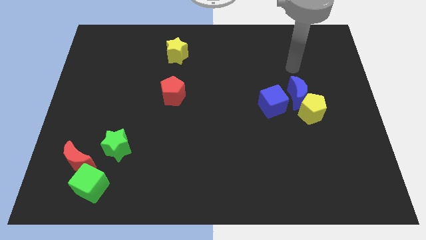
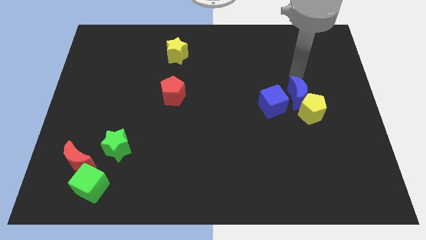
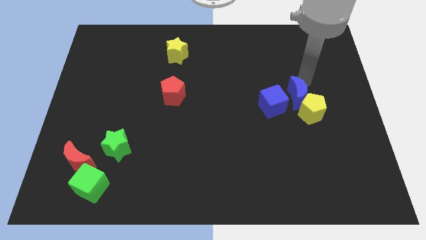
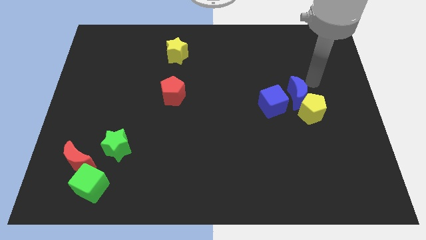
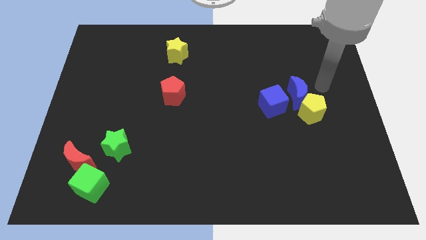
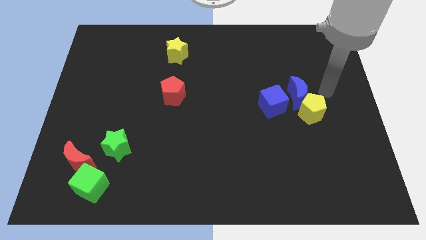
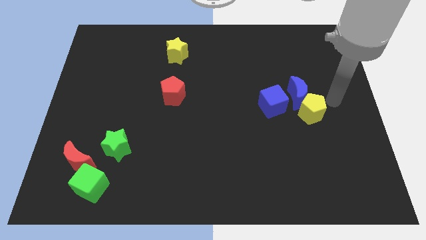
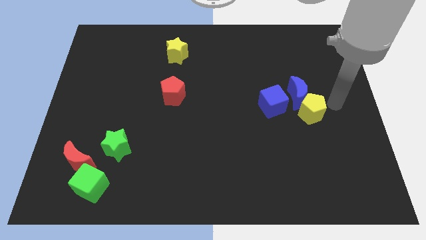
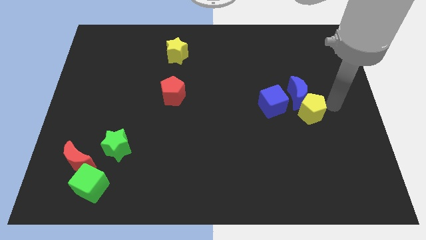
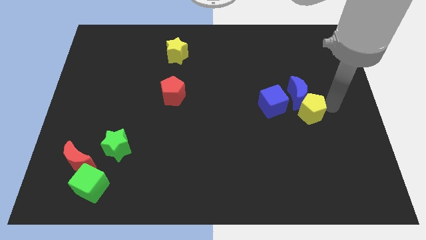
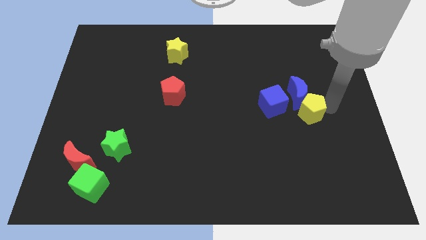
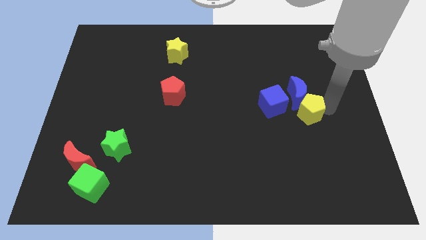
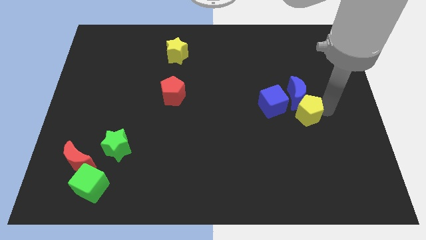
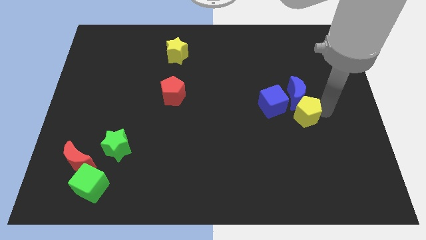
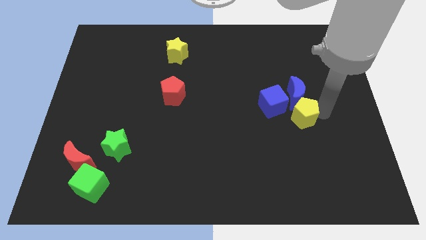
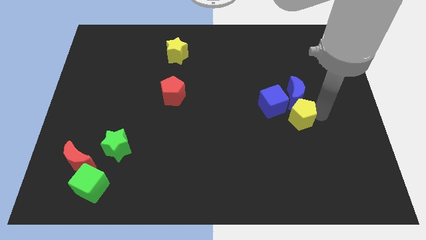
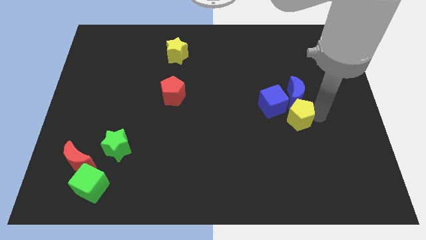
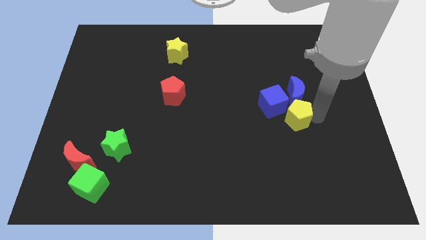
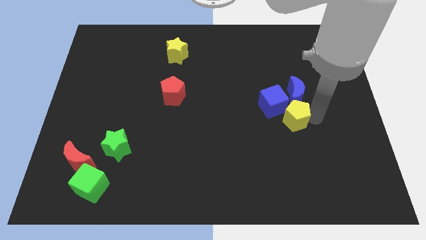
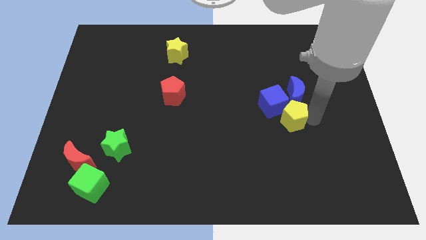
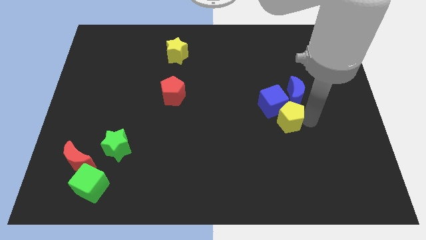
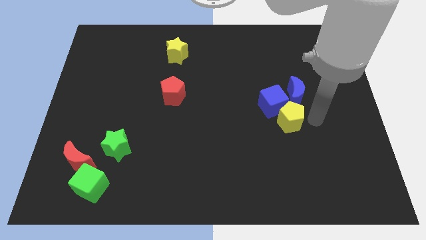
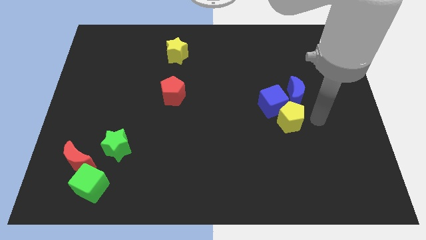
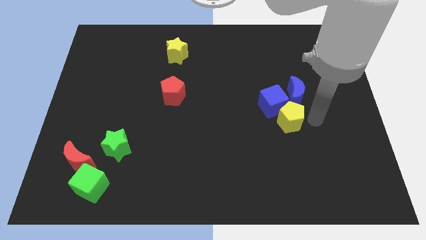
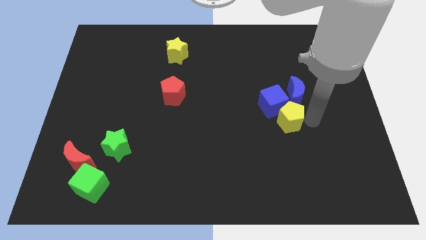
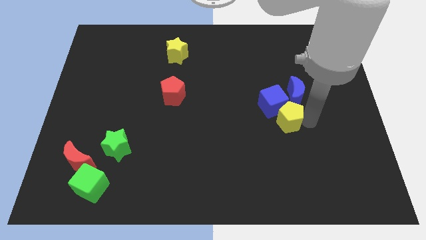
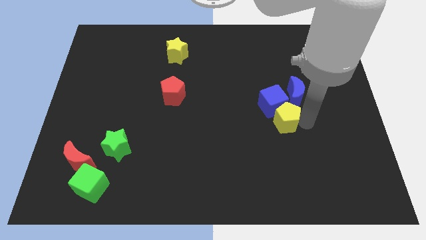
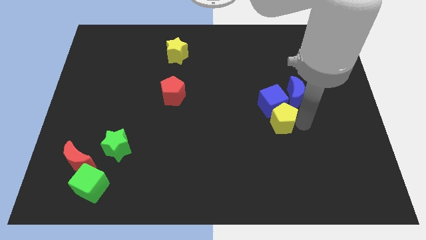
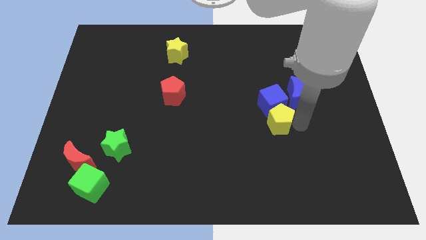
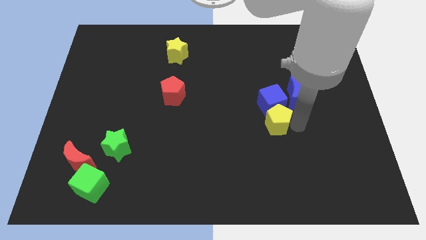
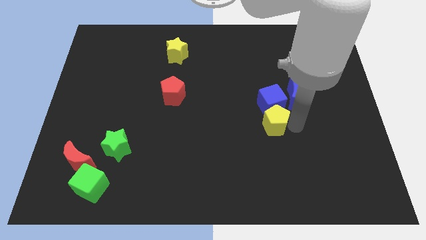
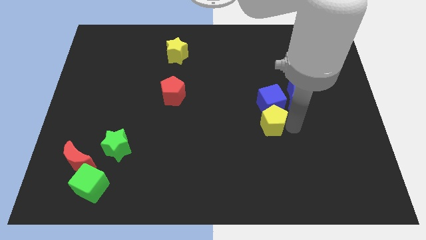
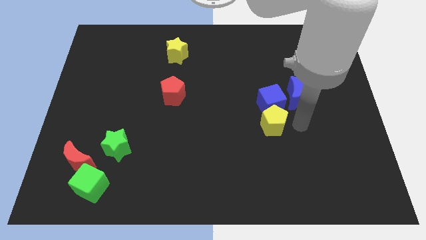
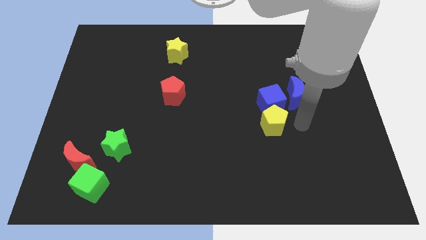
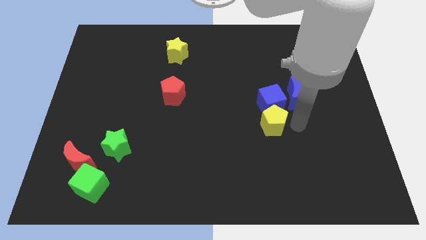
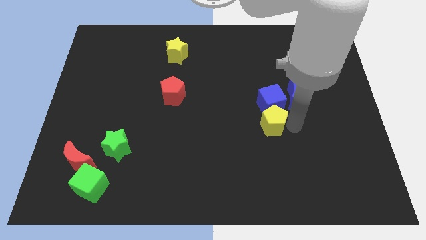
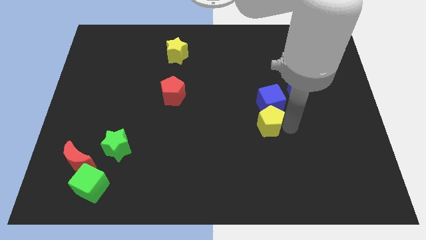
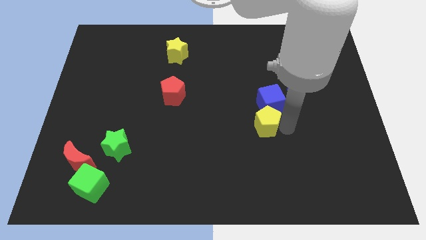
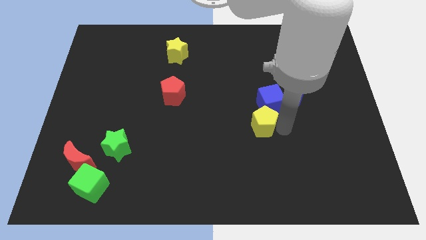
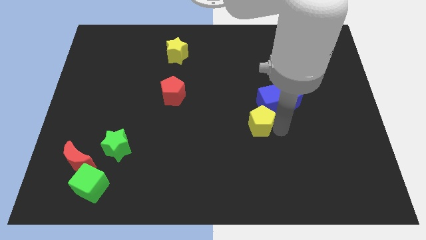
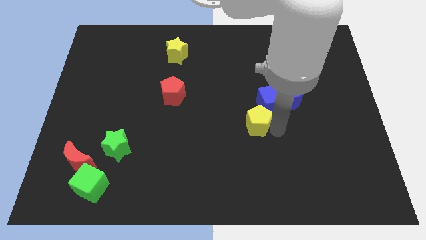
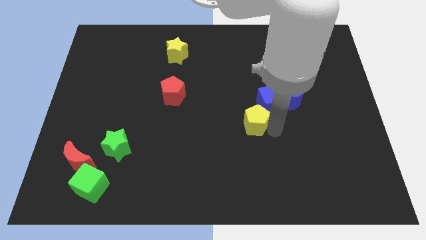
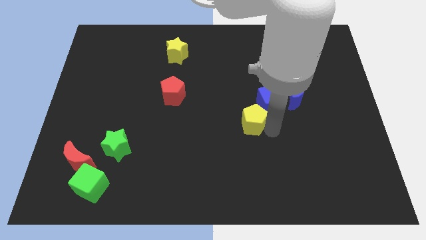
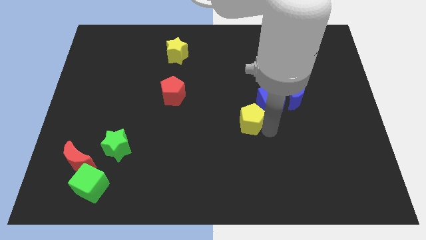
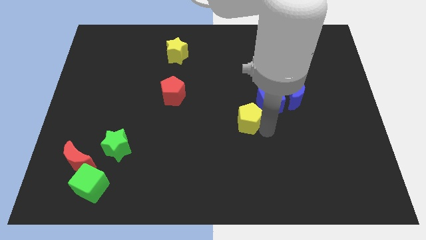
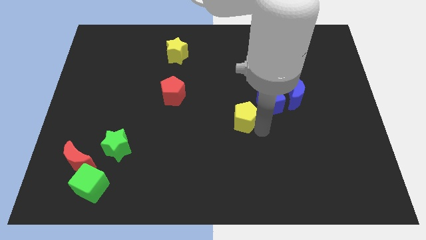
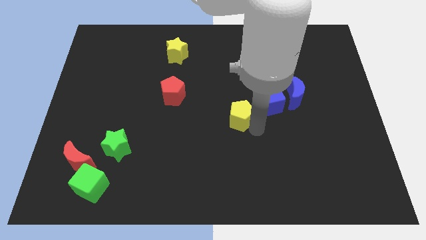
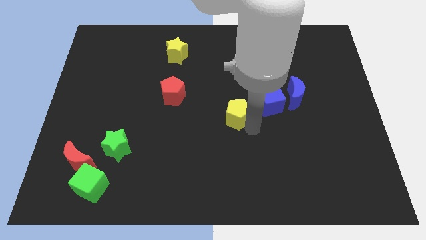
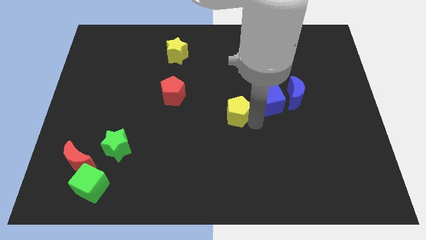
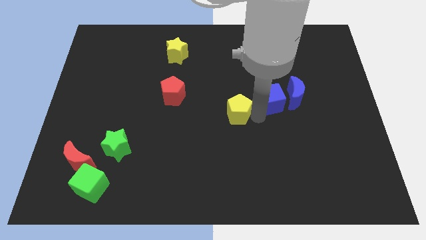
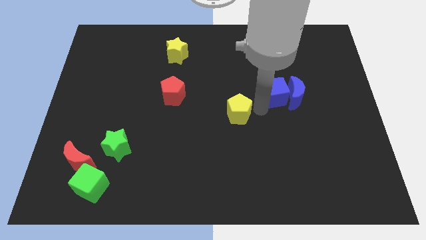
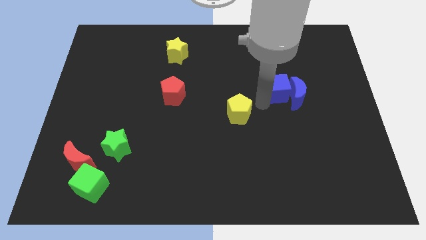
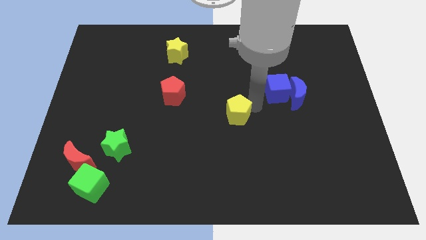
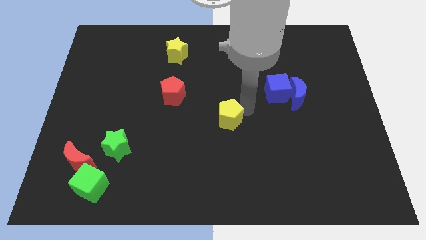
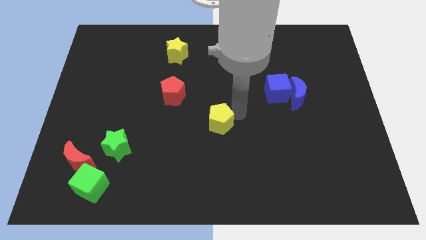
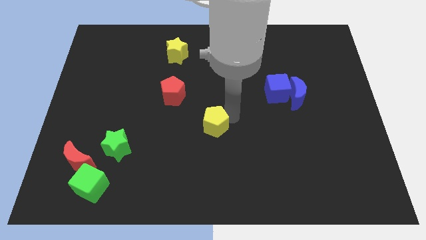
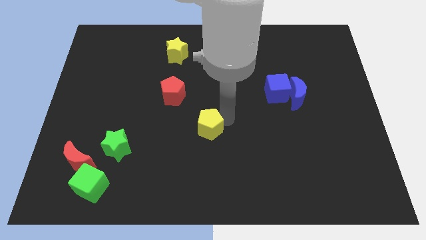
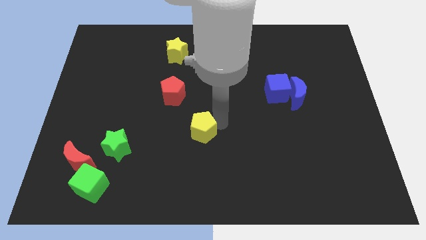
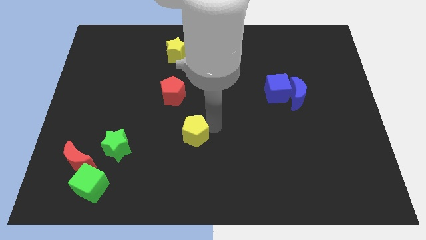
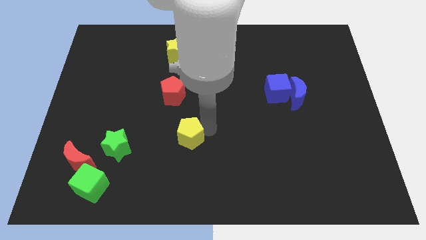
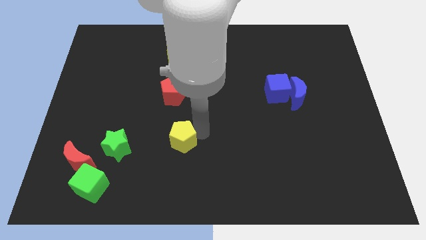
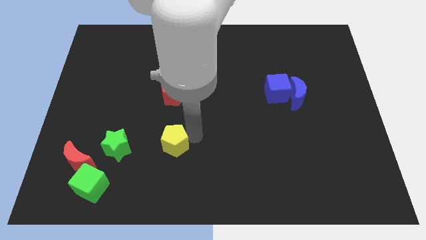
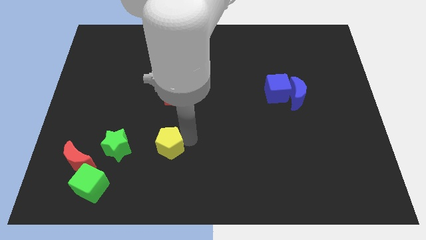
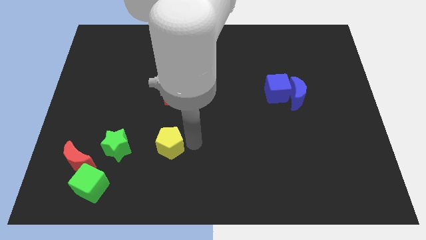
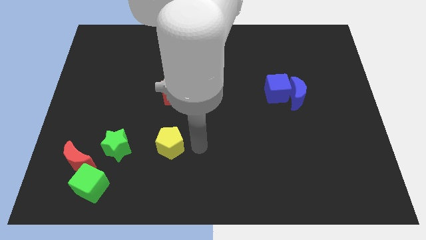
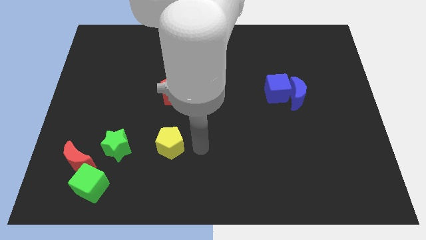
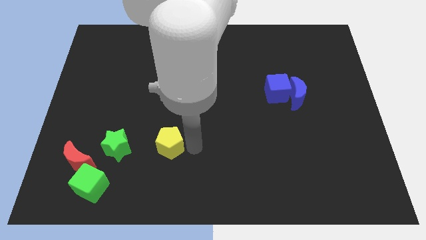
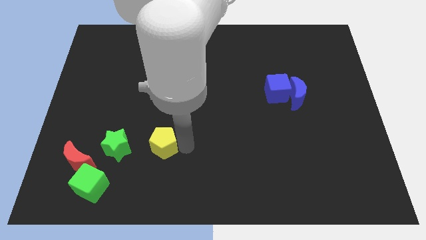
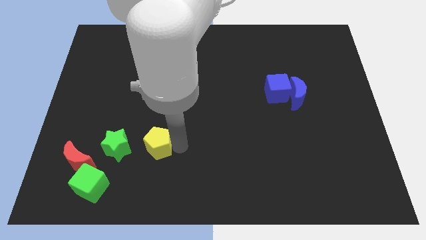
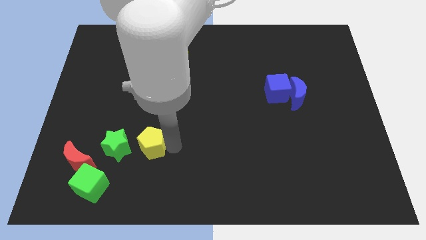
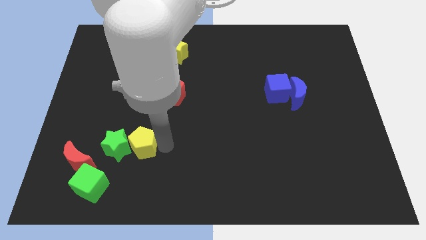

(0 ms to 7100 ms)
put the yellow pentagon to the green star
